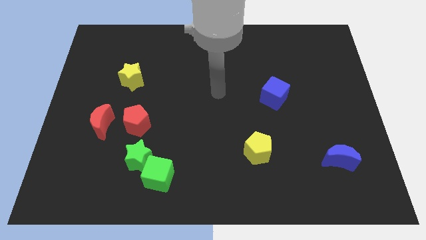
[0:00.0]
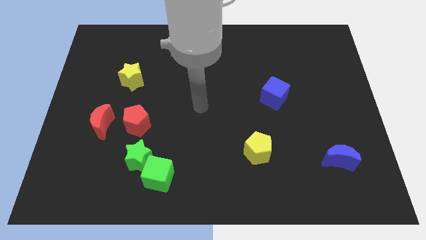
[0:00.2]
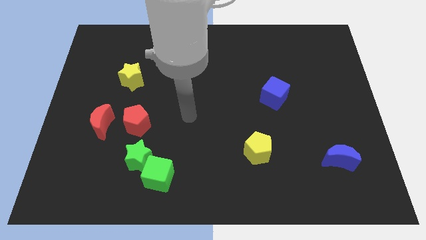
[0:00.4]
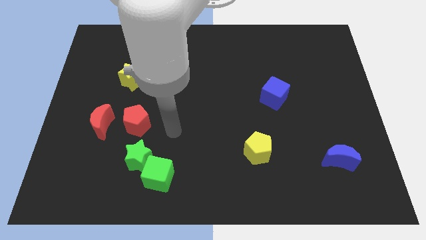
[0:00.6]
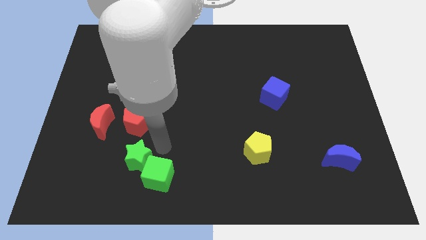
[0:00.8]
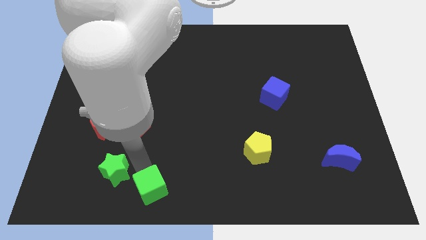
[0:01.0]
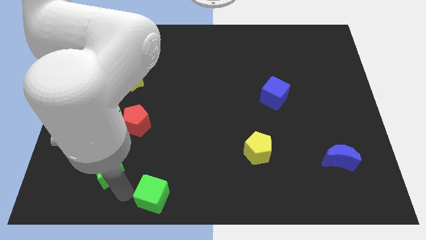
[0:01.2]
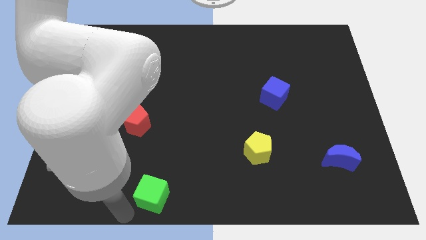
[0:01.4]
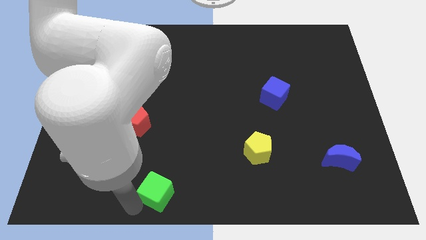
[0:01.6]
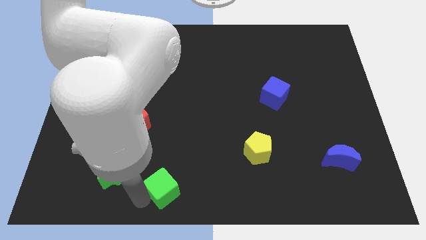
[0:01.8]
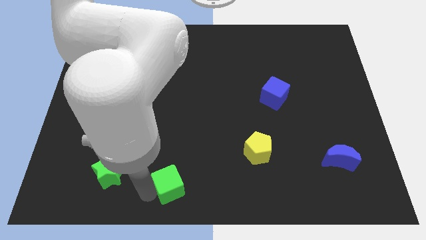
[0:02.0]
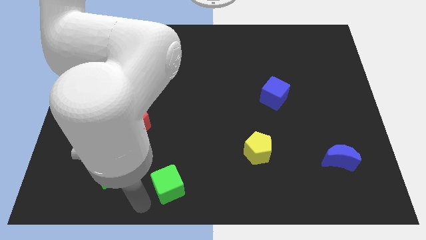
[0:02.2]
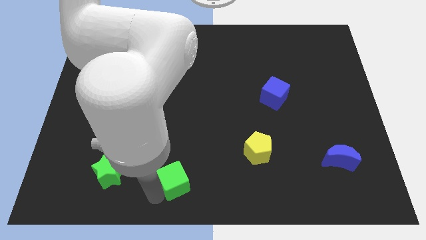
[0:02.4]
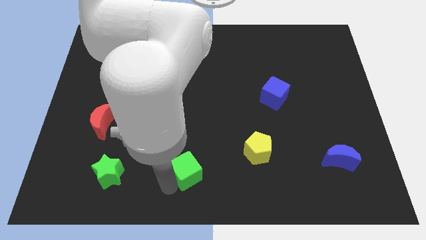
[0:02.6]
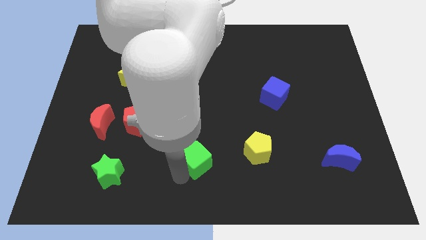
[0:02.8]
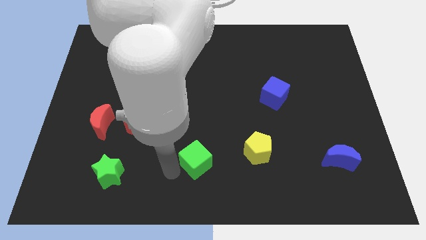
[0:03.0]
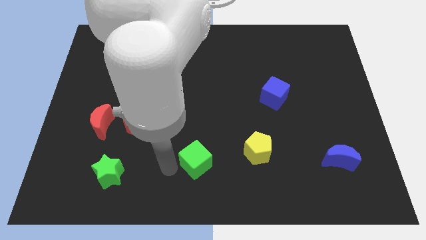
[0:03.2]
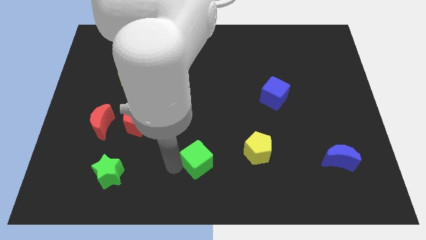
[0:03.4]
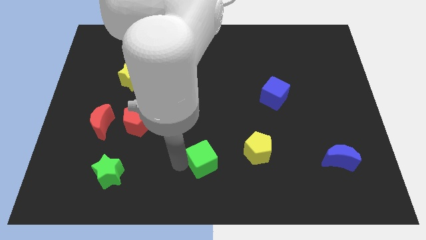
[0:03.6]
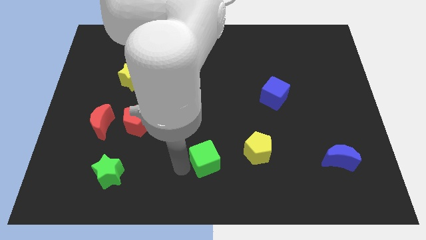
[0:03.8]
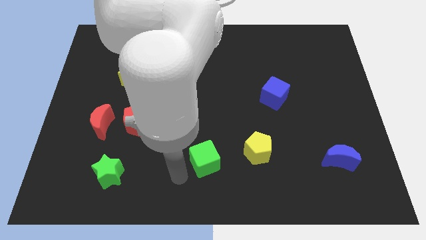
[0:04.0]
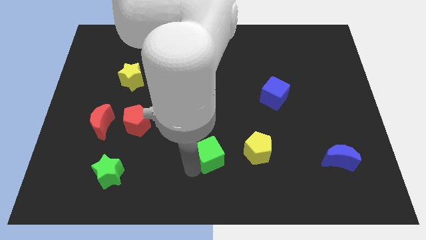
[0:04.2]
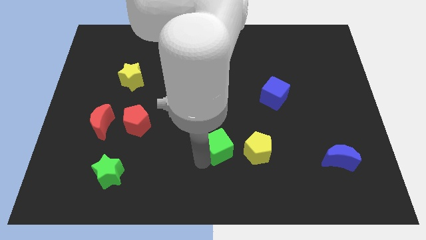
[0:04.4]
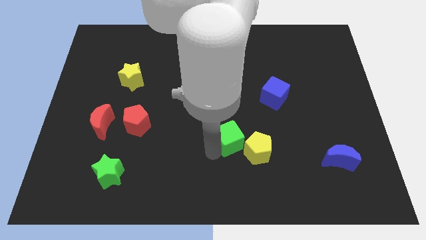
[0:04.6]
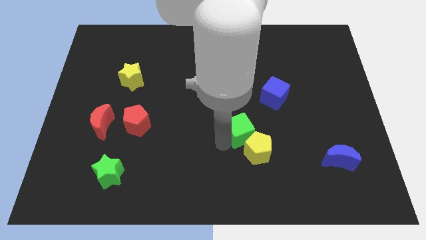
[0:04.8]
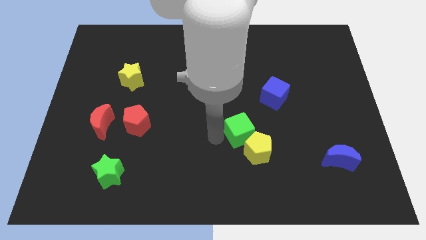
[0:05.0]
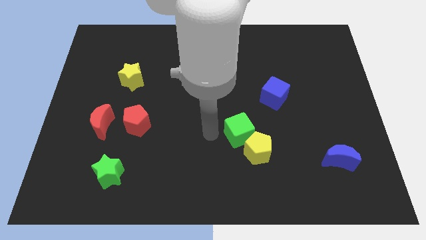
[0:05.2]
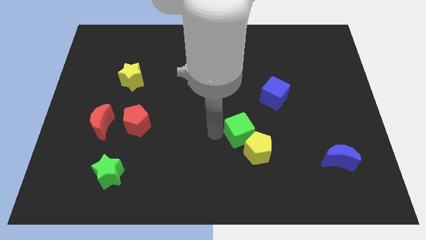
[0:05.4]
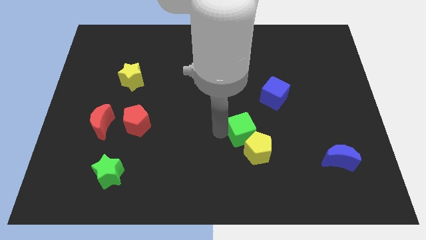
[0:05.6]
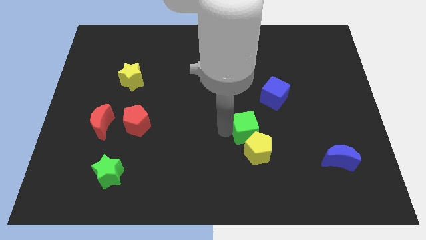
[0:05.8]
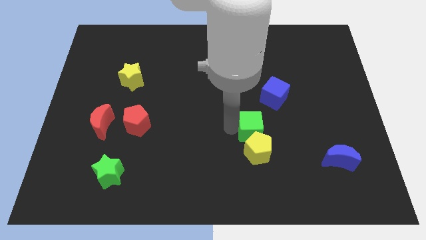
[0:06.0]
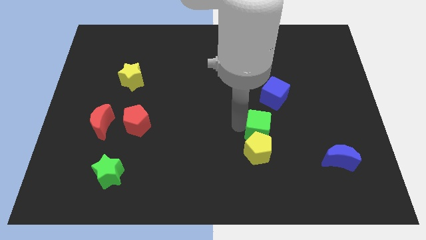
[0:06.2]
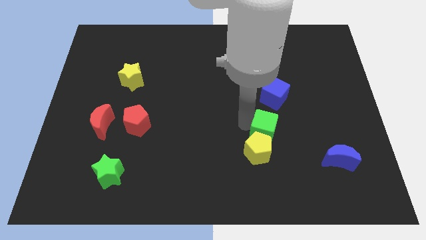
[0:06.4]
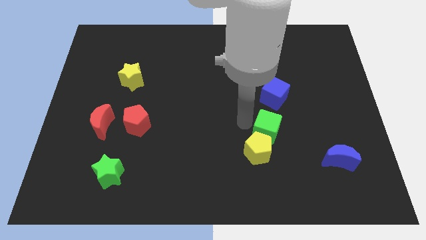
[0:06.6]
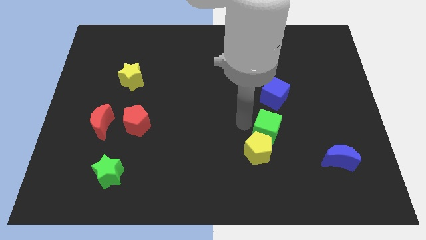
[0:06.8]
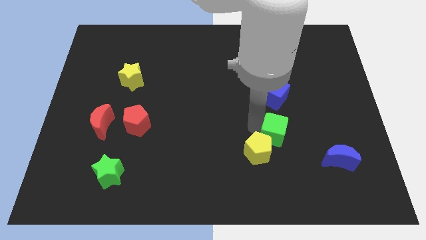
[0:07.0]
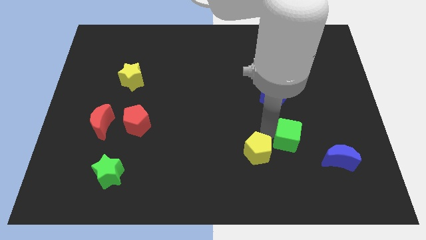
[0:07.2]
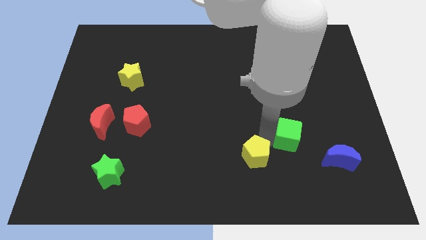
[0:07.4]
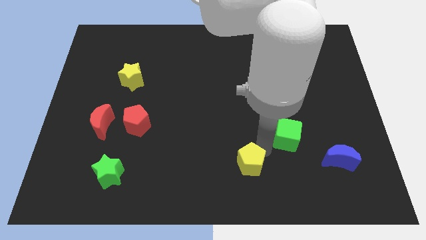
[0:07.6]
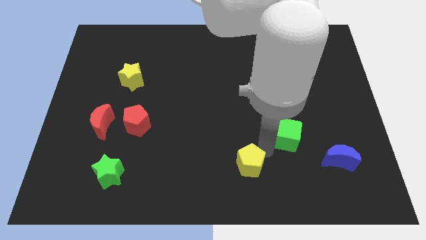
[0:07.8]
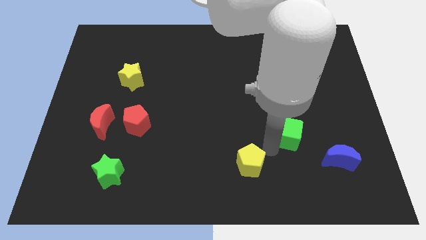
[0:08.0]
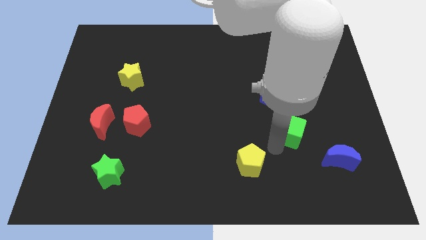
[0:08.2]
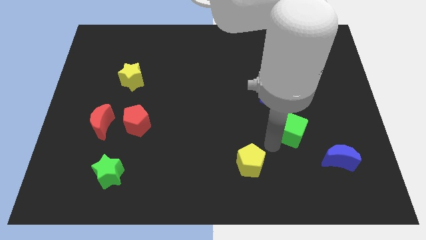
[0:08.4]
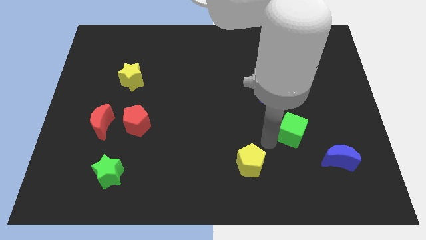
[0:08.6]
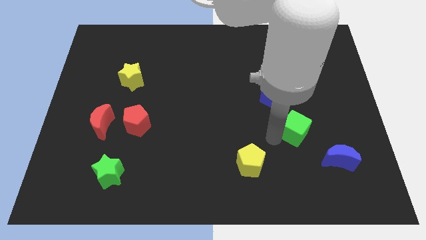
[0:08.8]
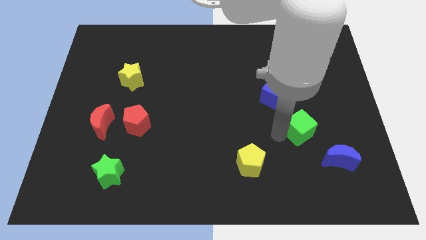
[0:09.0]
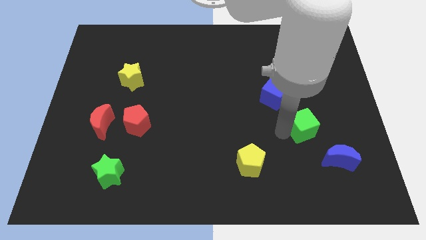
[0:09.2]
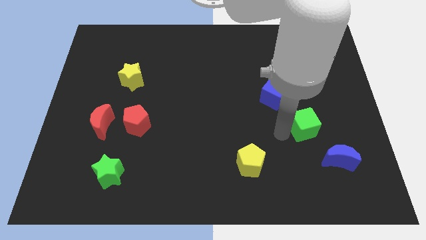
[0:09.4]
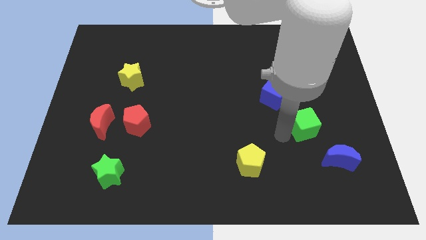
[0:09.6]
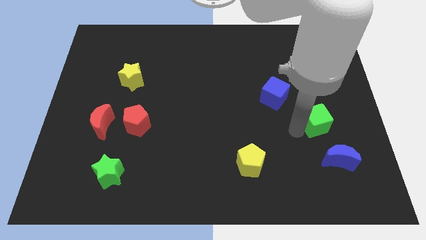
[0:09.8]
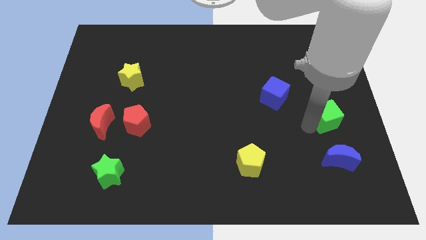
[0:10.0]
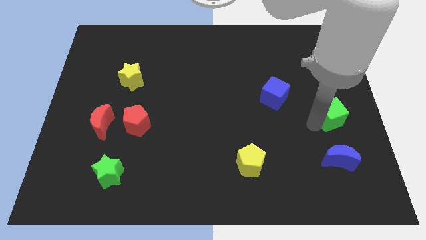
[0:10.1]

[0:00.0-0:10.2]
put the green cube to the right side of the board

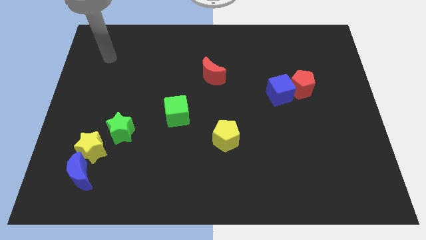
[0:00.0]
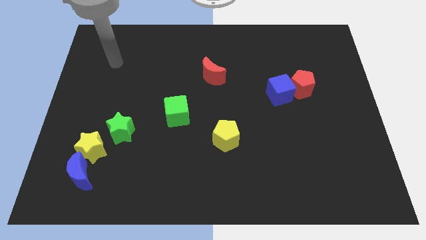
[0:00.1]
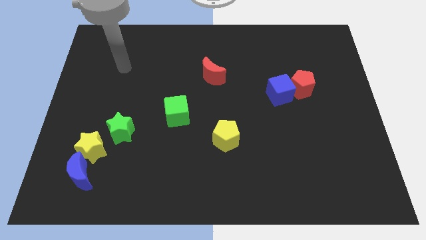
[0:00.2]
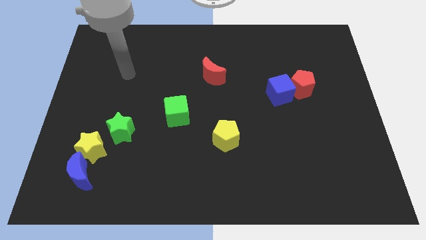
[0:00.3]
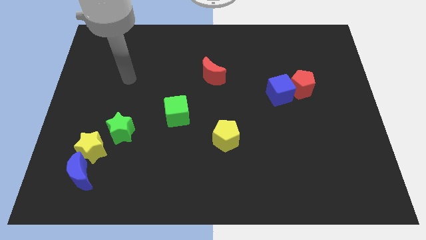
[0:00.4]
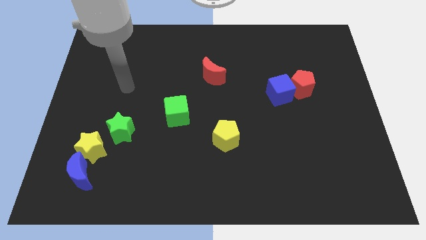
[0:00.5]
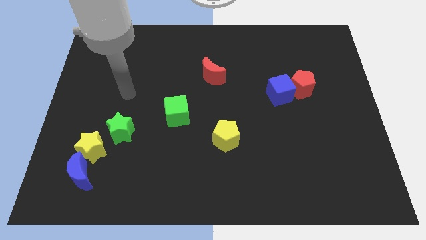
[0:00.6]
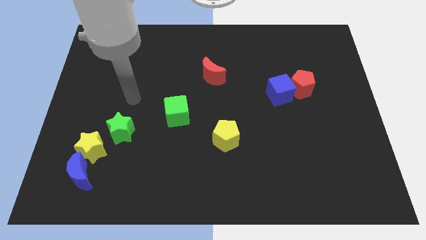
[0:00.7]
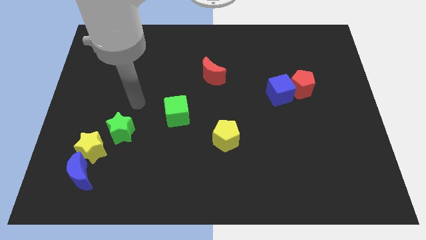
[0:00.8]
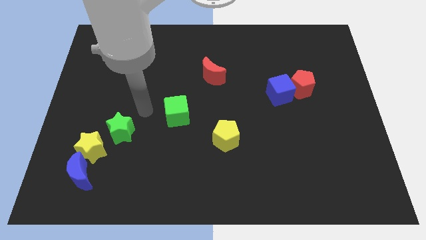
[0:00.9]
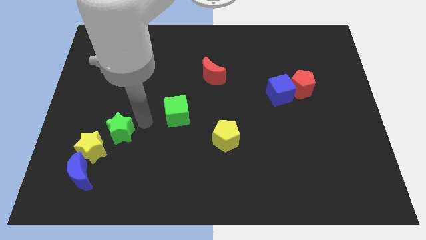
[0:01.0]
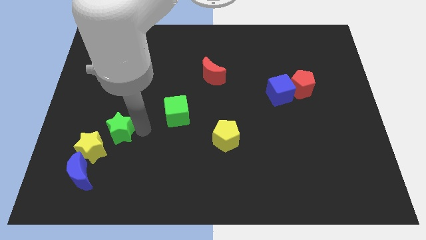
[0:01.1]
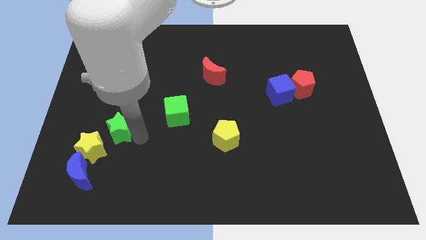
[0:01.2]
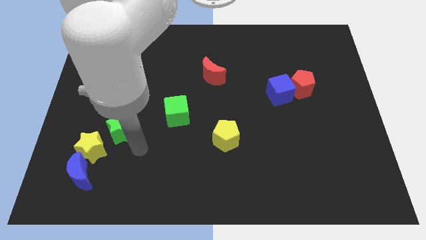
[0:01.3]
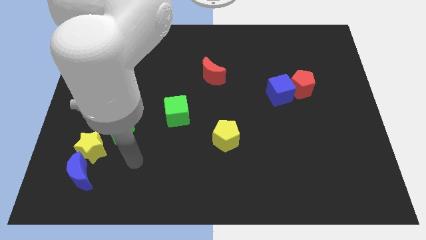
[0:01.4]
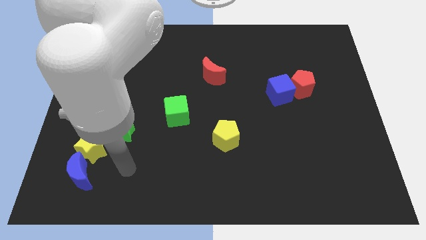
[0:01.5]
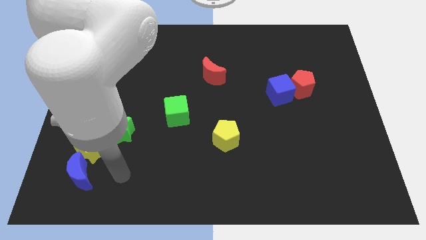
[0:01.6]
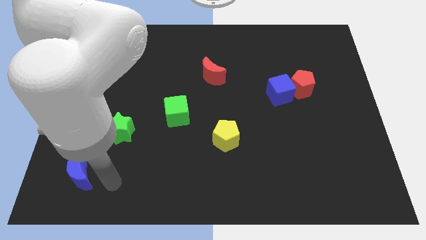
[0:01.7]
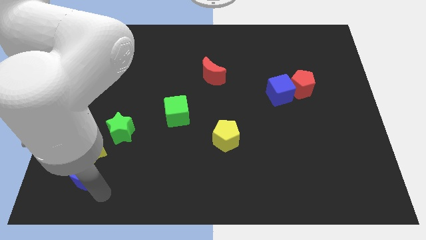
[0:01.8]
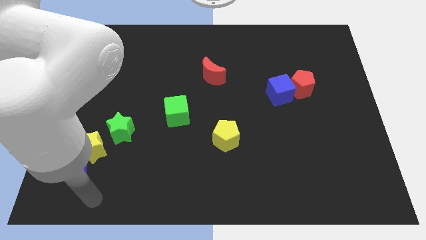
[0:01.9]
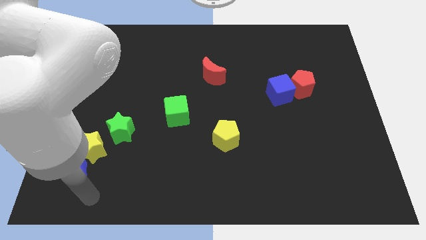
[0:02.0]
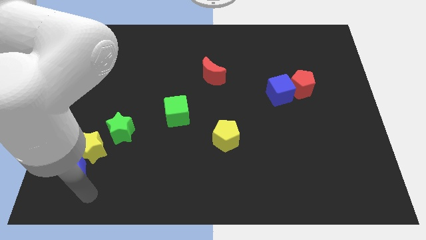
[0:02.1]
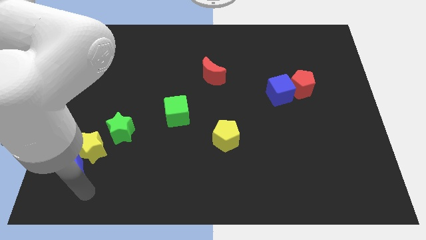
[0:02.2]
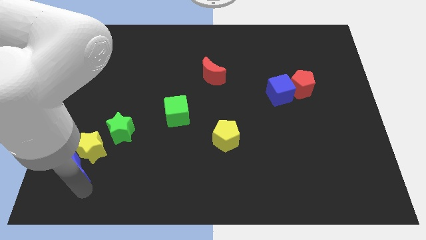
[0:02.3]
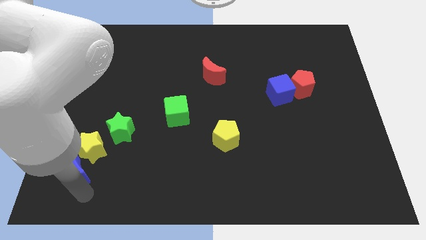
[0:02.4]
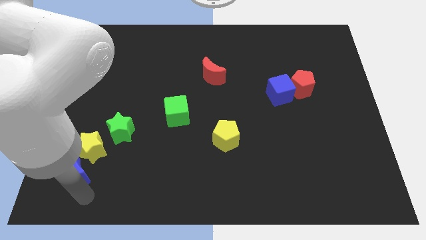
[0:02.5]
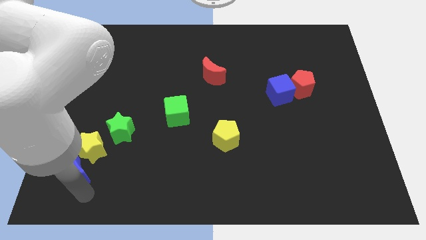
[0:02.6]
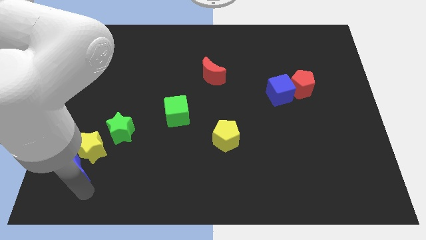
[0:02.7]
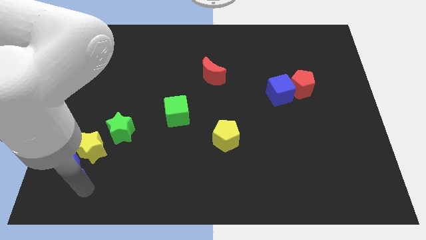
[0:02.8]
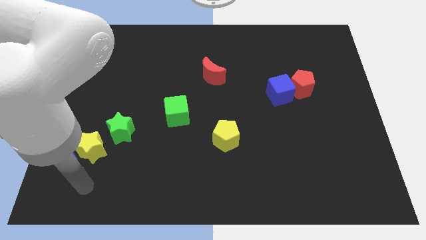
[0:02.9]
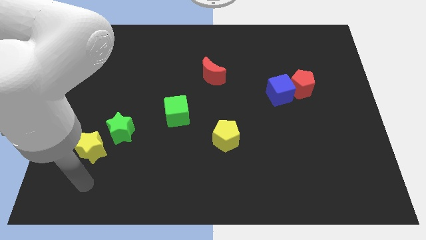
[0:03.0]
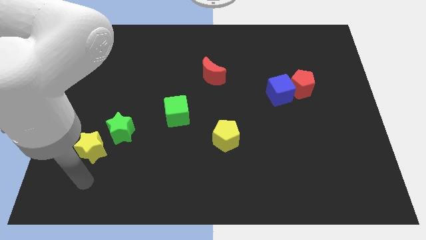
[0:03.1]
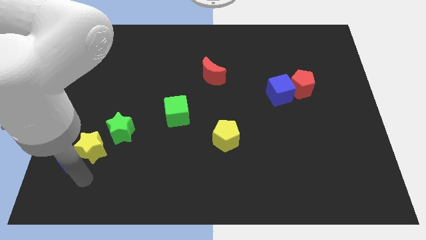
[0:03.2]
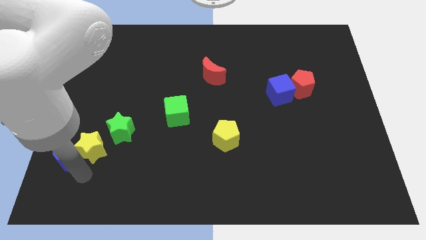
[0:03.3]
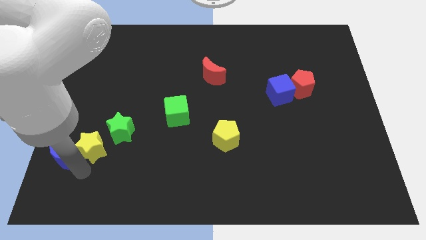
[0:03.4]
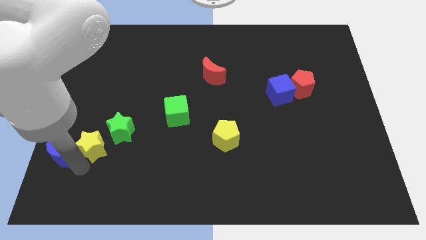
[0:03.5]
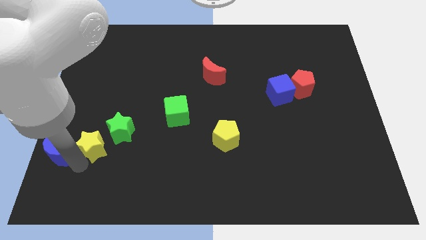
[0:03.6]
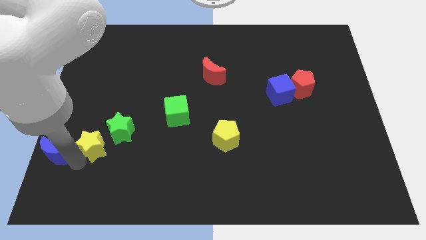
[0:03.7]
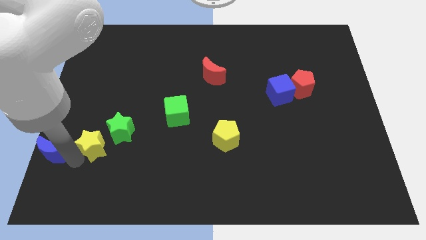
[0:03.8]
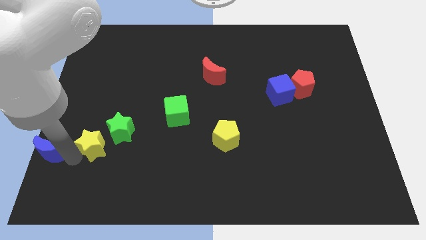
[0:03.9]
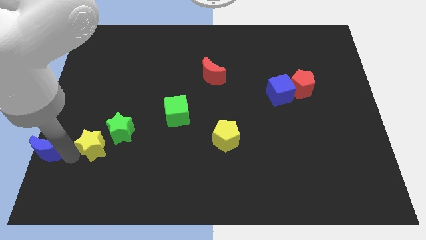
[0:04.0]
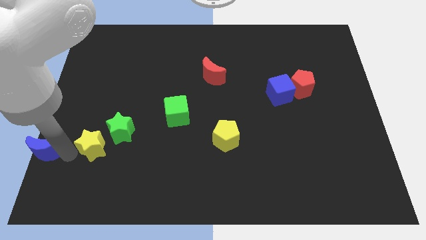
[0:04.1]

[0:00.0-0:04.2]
push the blue moon to the center left
